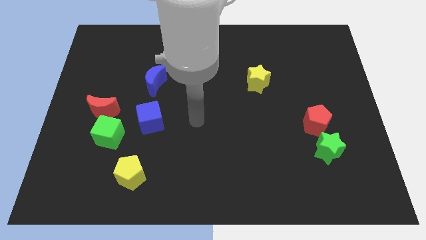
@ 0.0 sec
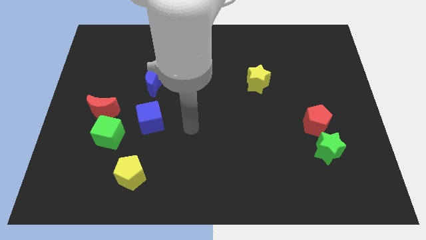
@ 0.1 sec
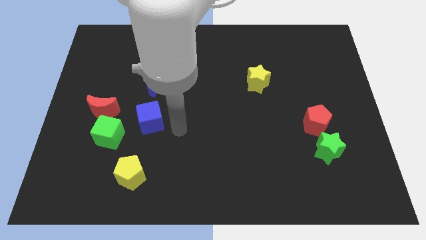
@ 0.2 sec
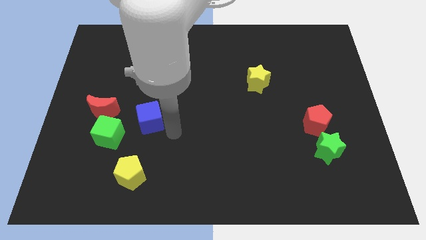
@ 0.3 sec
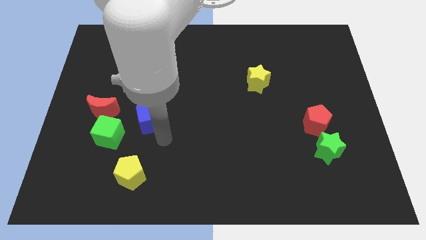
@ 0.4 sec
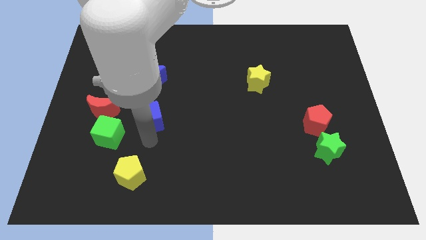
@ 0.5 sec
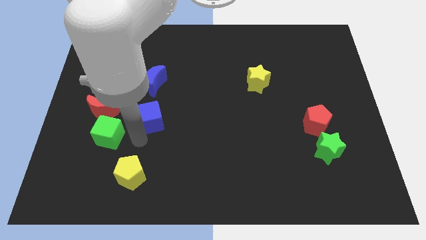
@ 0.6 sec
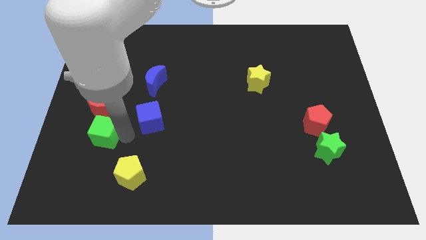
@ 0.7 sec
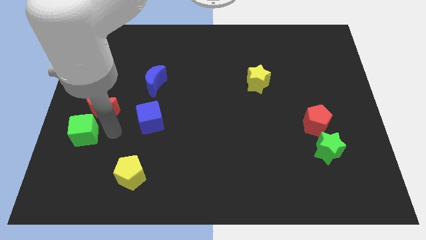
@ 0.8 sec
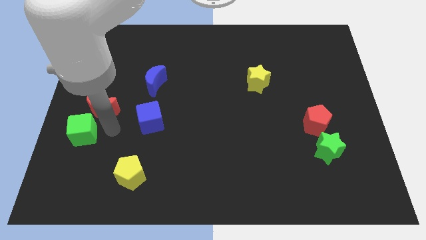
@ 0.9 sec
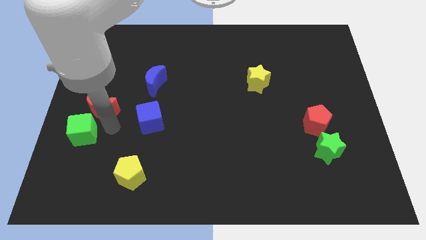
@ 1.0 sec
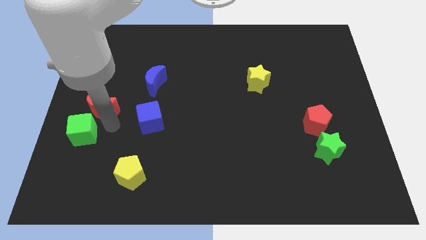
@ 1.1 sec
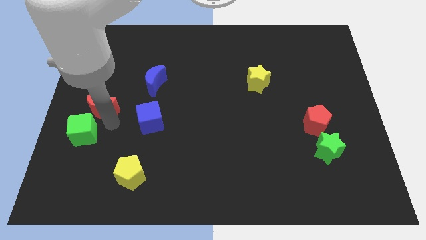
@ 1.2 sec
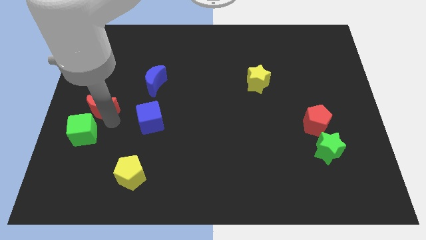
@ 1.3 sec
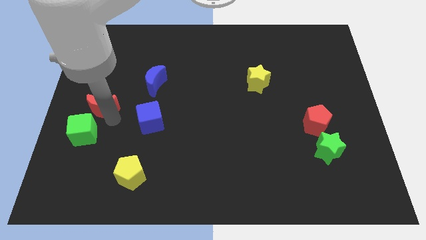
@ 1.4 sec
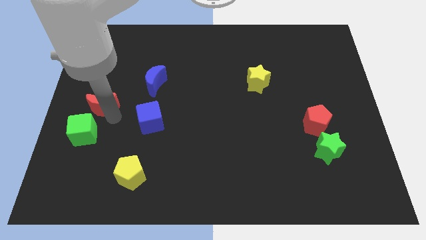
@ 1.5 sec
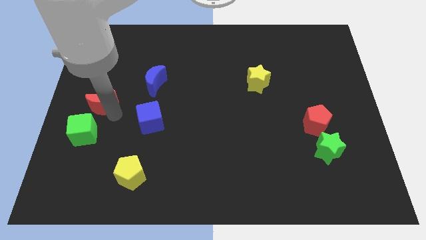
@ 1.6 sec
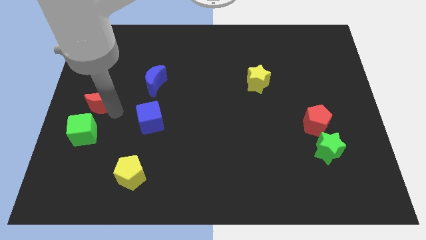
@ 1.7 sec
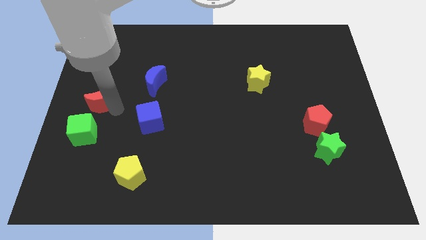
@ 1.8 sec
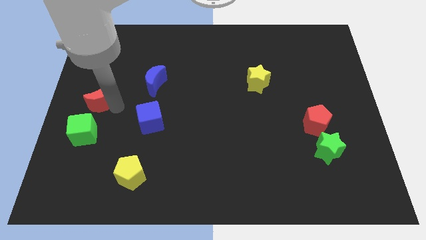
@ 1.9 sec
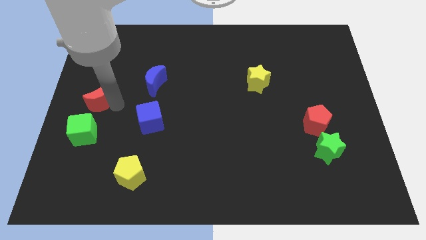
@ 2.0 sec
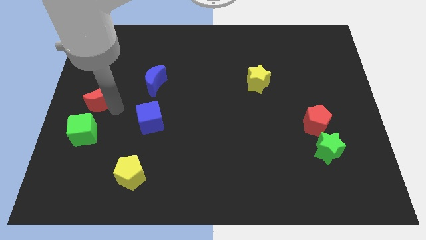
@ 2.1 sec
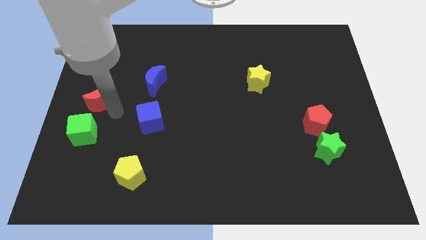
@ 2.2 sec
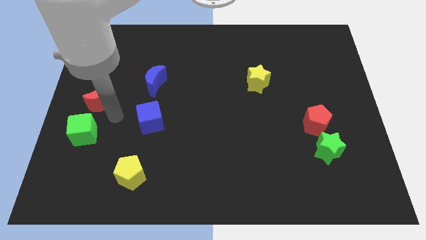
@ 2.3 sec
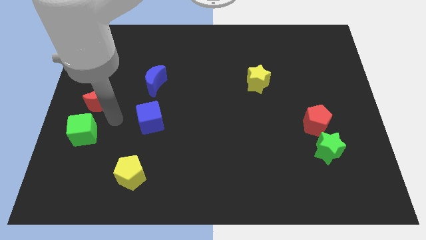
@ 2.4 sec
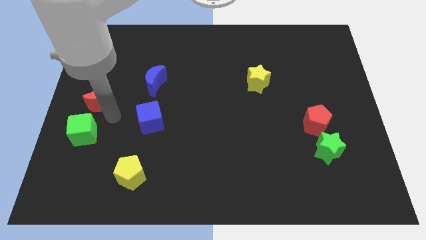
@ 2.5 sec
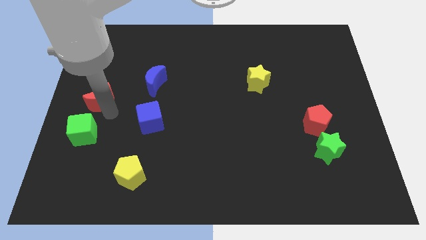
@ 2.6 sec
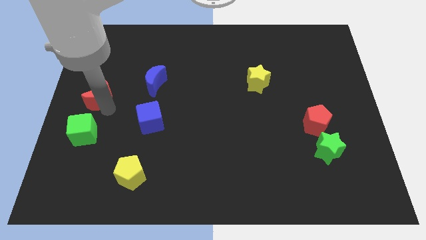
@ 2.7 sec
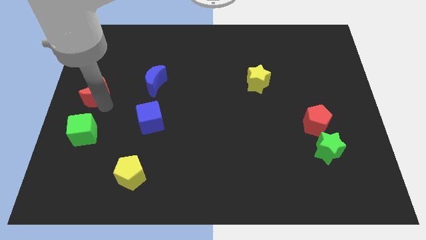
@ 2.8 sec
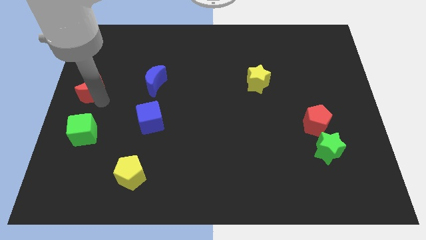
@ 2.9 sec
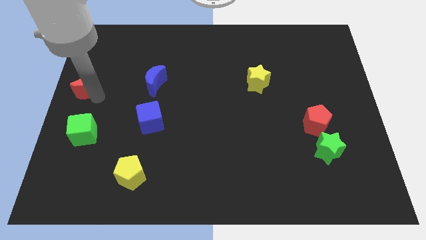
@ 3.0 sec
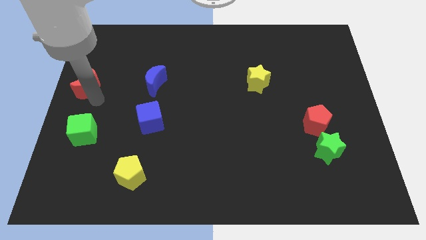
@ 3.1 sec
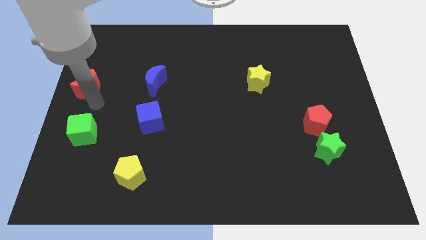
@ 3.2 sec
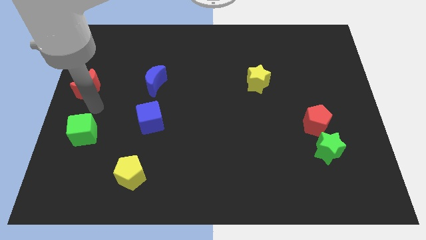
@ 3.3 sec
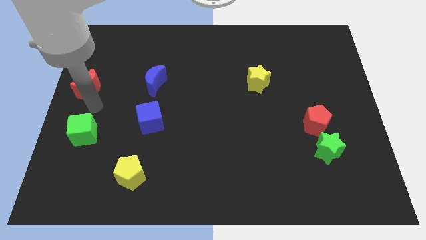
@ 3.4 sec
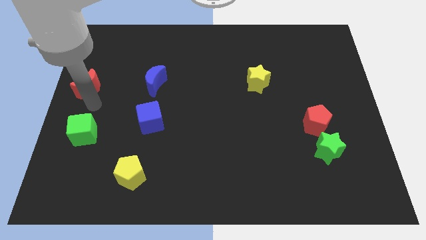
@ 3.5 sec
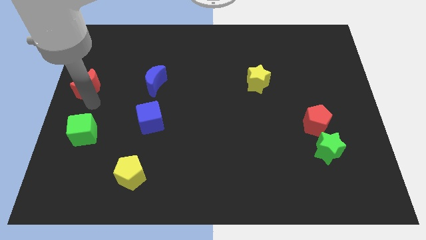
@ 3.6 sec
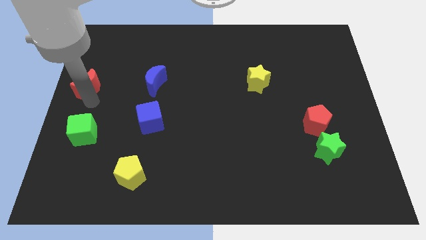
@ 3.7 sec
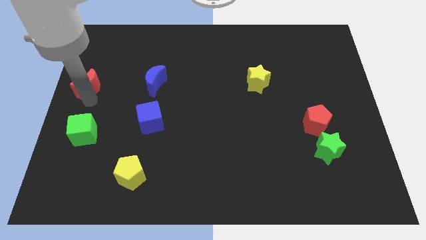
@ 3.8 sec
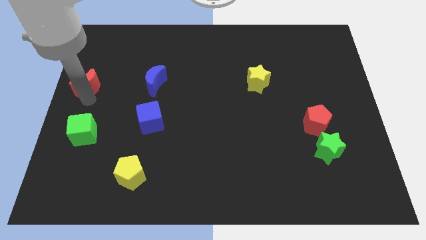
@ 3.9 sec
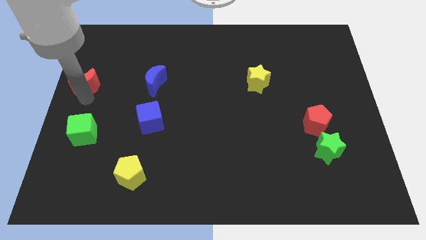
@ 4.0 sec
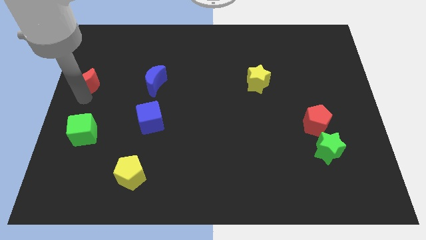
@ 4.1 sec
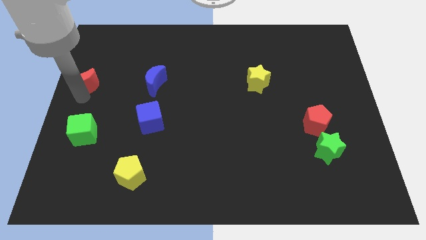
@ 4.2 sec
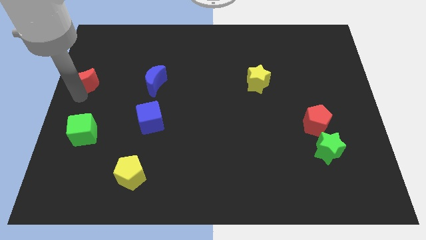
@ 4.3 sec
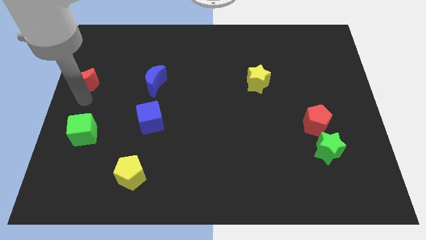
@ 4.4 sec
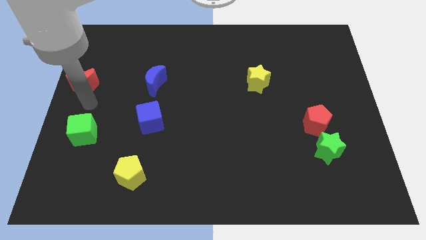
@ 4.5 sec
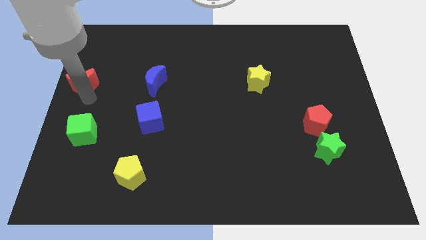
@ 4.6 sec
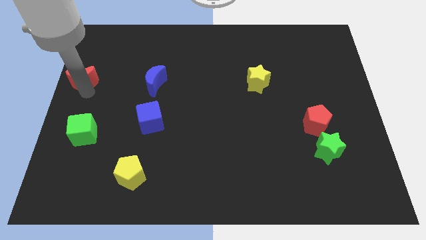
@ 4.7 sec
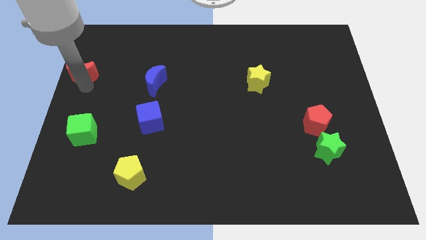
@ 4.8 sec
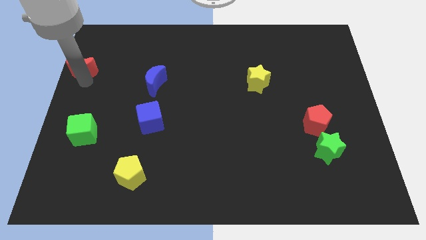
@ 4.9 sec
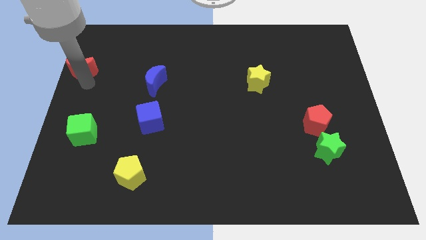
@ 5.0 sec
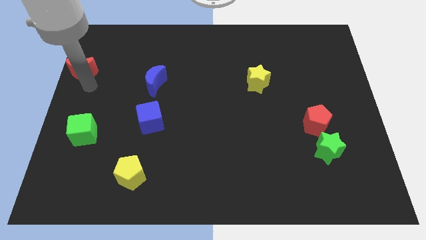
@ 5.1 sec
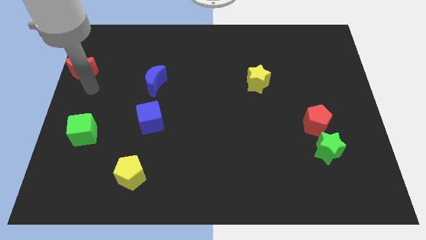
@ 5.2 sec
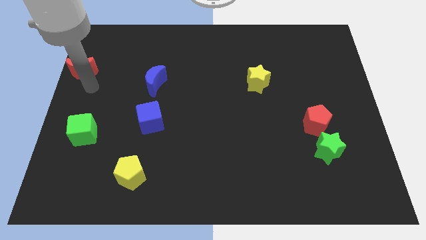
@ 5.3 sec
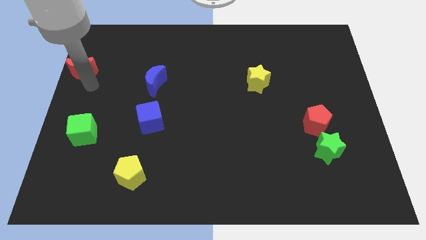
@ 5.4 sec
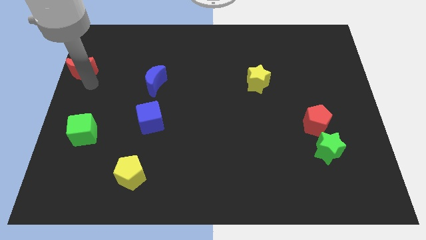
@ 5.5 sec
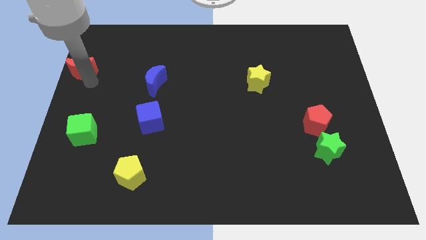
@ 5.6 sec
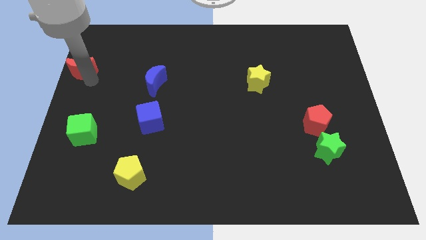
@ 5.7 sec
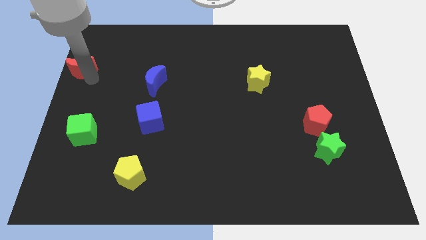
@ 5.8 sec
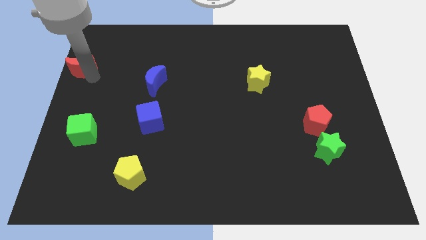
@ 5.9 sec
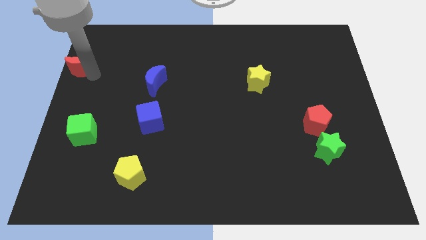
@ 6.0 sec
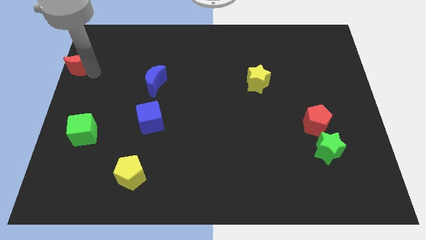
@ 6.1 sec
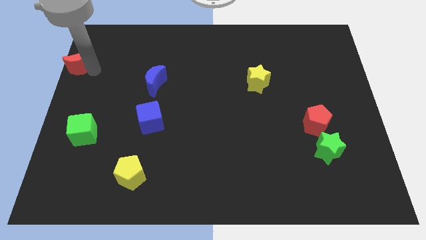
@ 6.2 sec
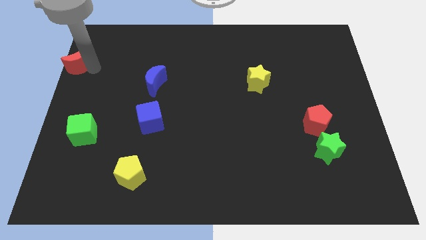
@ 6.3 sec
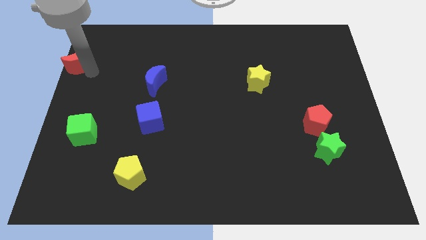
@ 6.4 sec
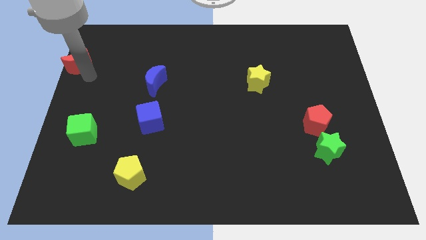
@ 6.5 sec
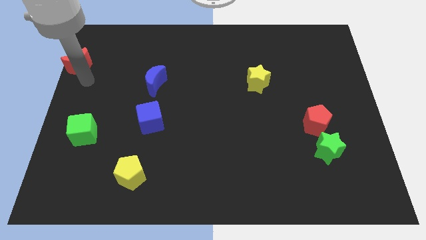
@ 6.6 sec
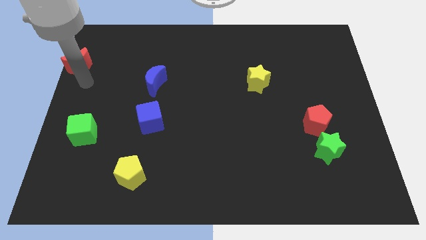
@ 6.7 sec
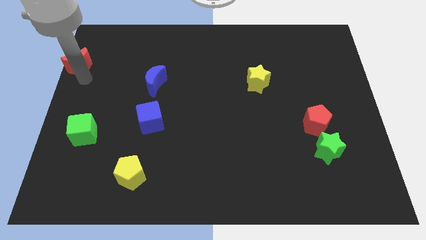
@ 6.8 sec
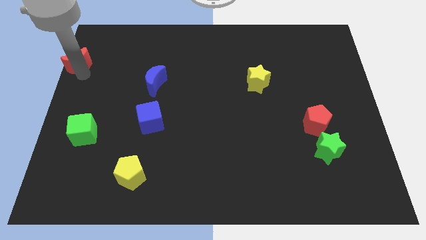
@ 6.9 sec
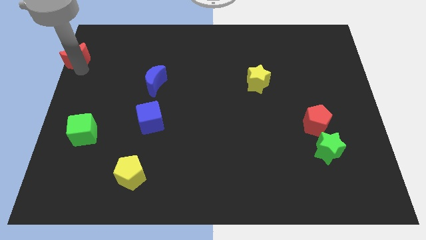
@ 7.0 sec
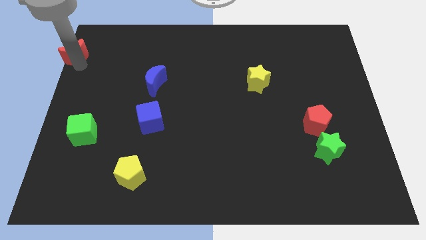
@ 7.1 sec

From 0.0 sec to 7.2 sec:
put the red moon to the top left
